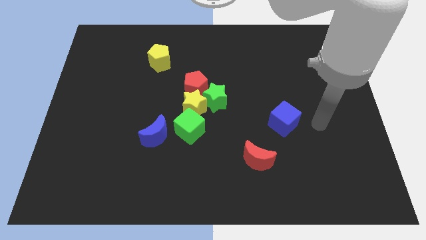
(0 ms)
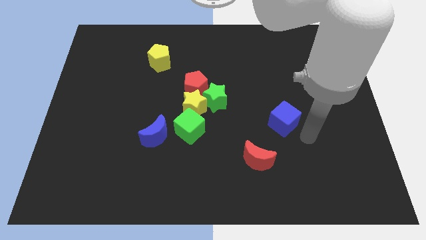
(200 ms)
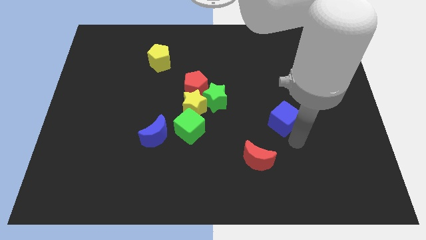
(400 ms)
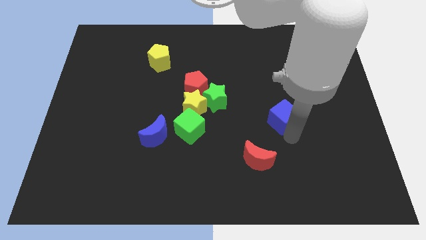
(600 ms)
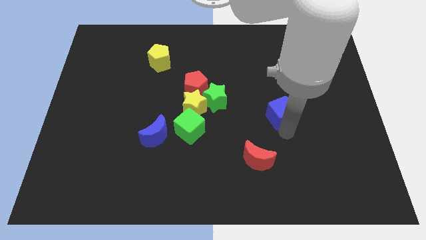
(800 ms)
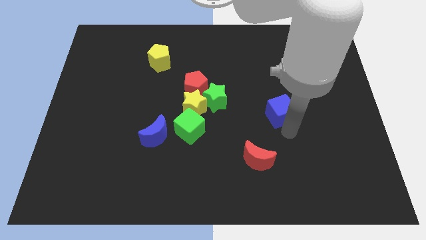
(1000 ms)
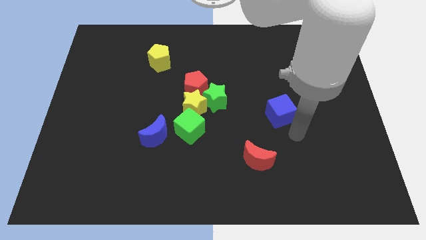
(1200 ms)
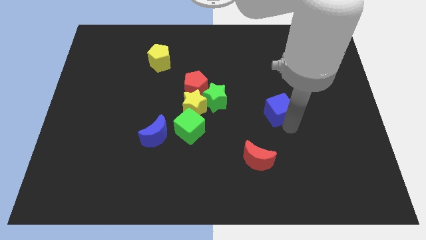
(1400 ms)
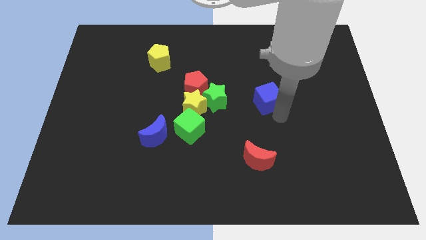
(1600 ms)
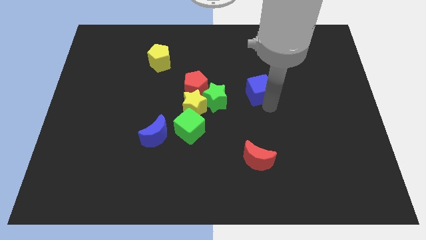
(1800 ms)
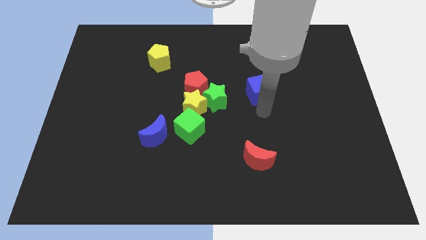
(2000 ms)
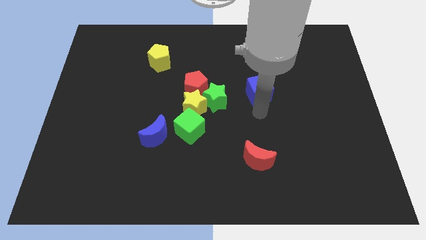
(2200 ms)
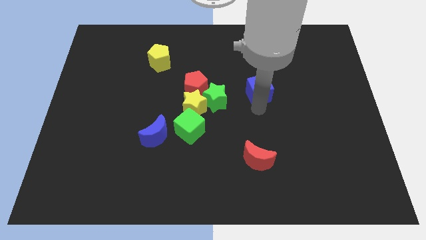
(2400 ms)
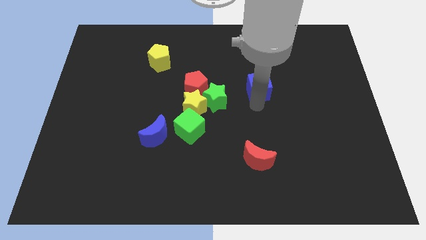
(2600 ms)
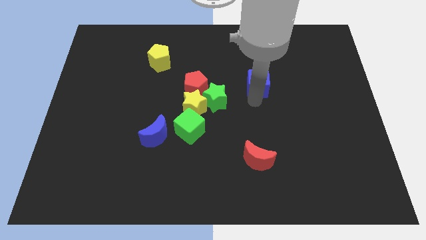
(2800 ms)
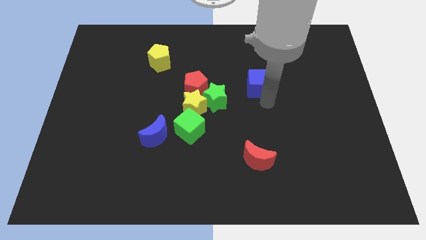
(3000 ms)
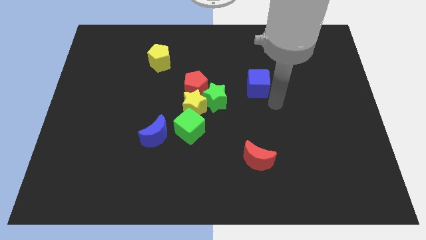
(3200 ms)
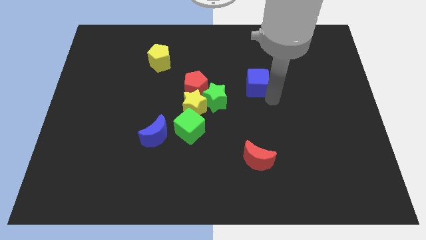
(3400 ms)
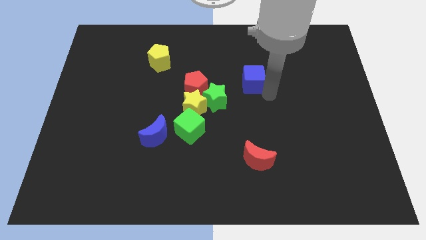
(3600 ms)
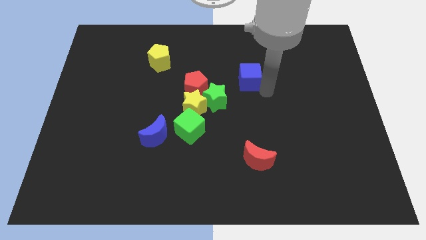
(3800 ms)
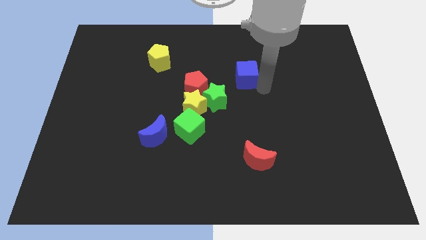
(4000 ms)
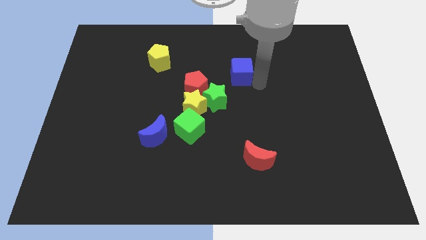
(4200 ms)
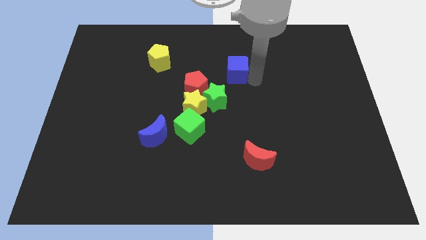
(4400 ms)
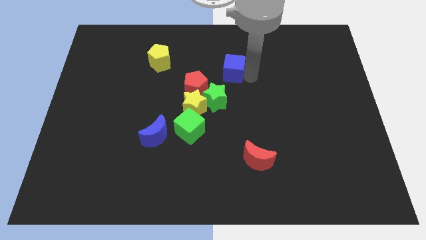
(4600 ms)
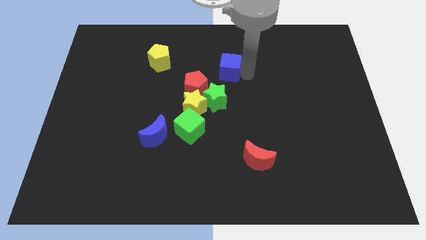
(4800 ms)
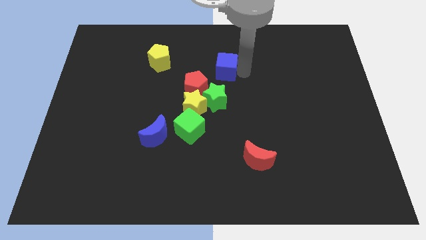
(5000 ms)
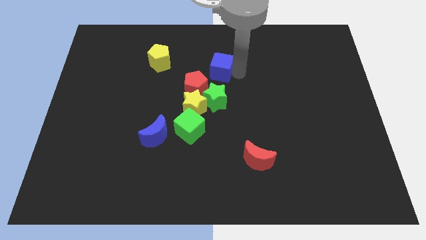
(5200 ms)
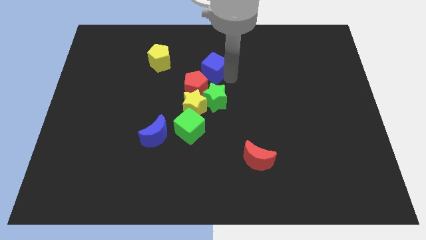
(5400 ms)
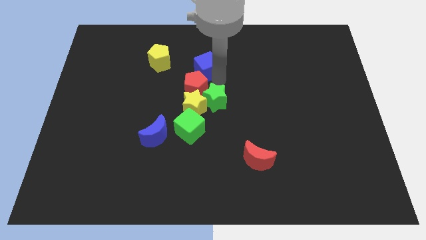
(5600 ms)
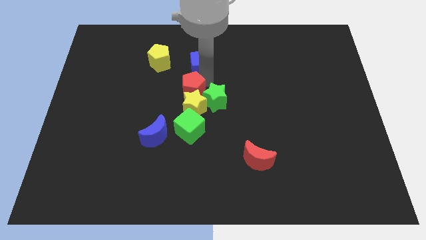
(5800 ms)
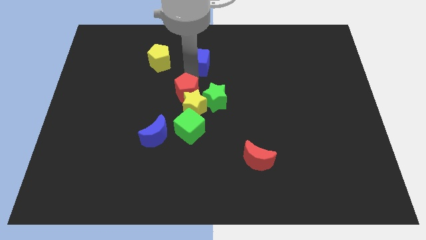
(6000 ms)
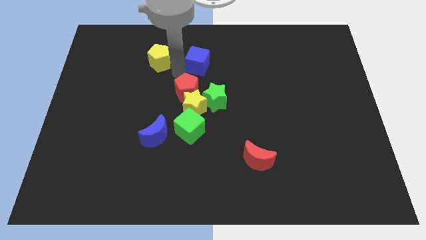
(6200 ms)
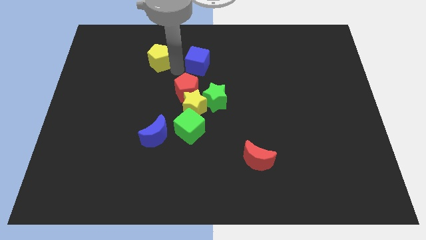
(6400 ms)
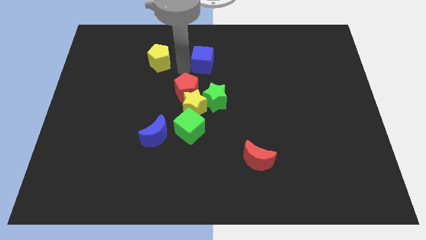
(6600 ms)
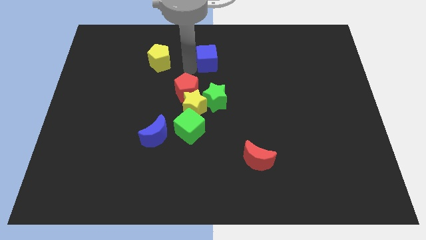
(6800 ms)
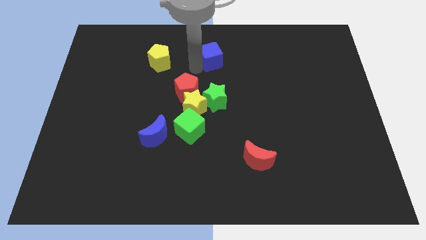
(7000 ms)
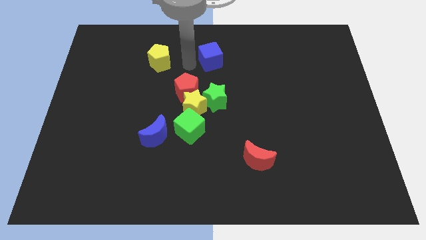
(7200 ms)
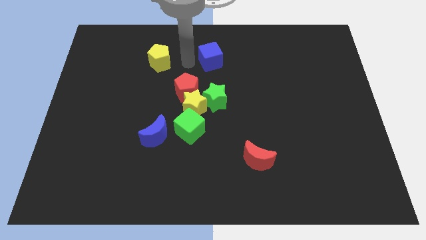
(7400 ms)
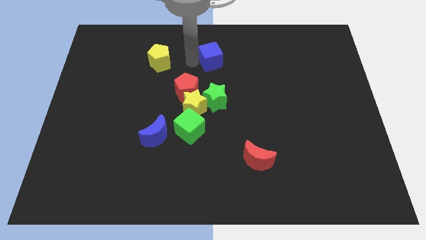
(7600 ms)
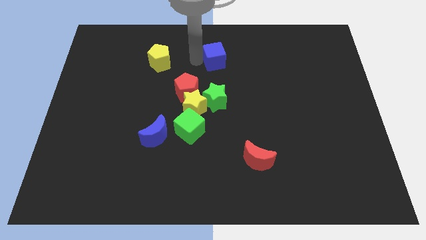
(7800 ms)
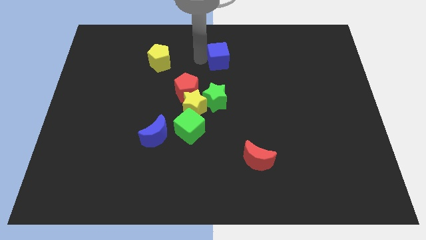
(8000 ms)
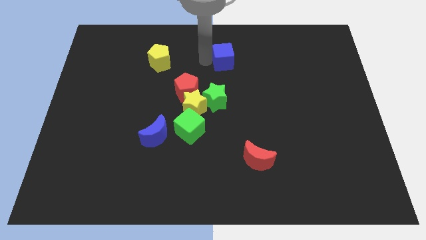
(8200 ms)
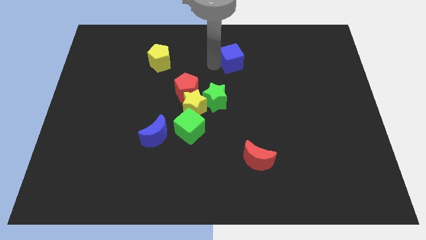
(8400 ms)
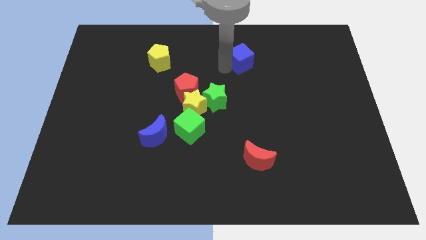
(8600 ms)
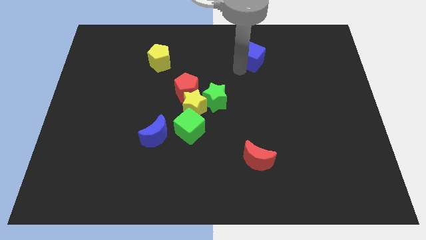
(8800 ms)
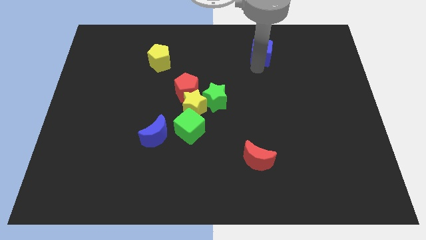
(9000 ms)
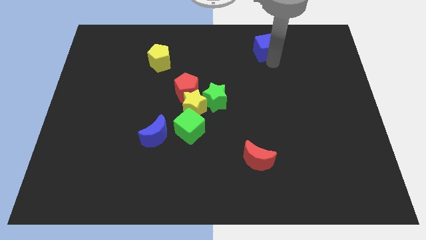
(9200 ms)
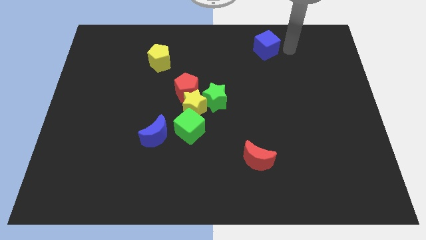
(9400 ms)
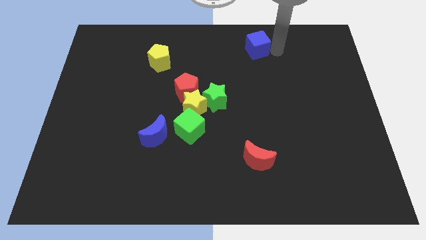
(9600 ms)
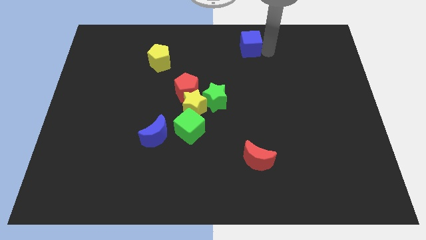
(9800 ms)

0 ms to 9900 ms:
move the blue cube to the top side

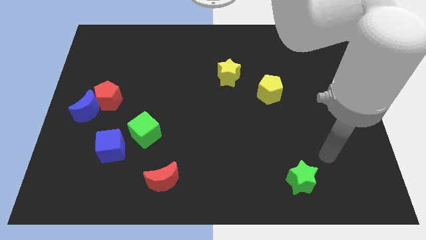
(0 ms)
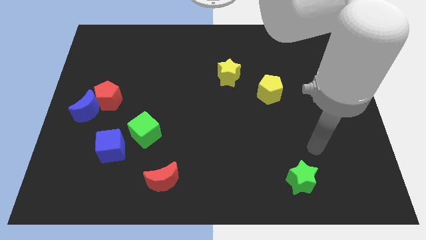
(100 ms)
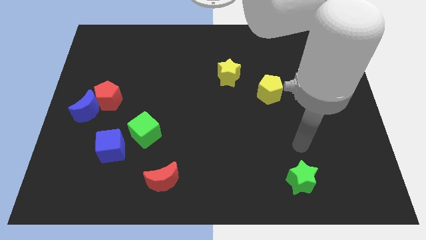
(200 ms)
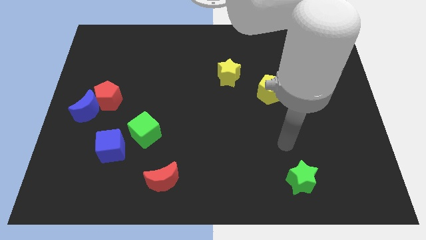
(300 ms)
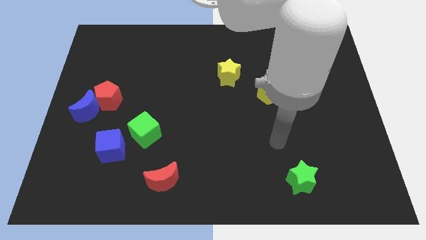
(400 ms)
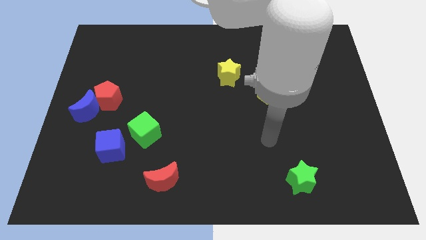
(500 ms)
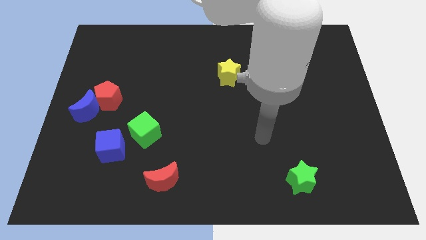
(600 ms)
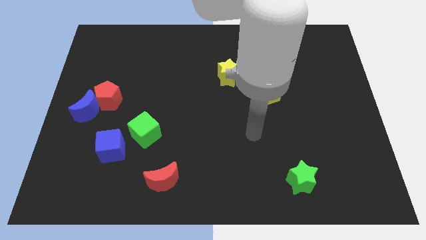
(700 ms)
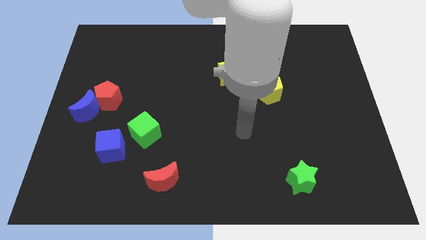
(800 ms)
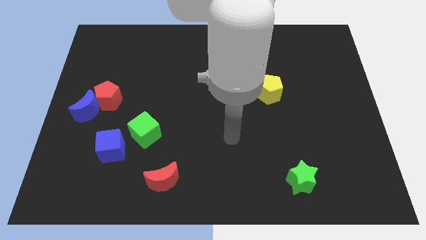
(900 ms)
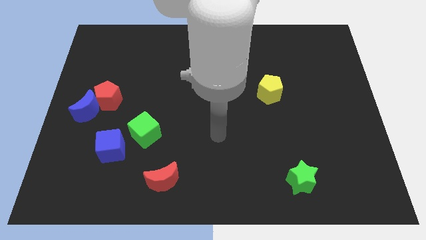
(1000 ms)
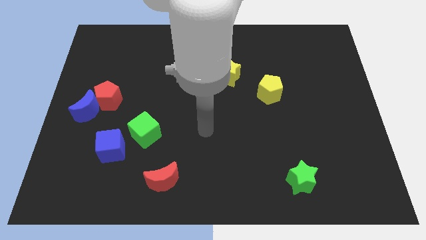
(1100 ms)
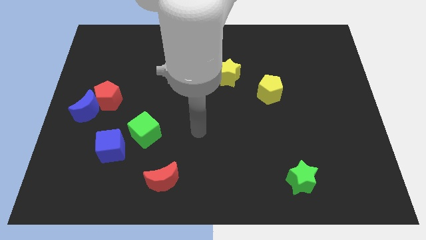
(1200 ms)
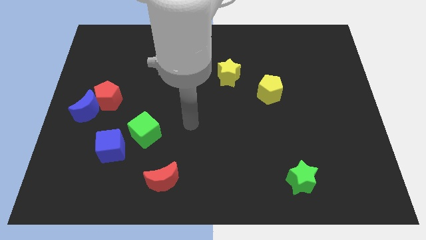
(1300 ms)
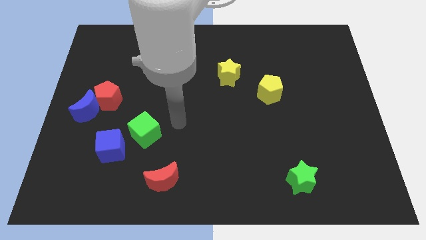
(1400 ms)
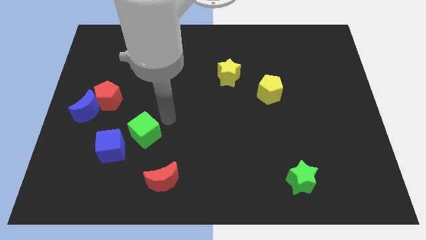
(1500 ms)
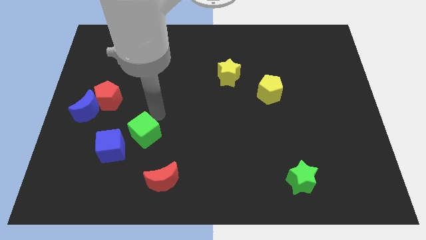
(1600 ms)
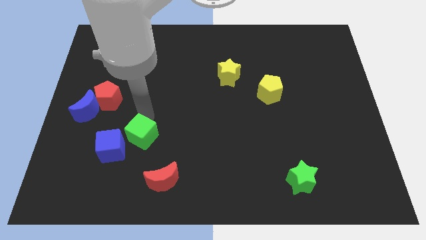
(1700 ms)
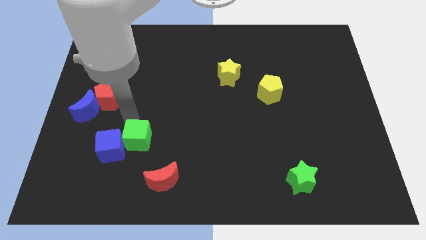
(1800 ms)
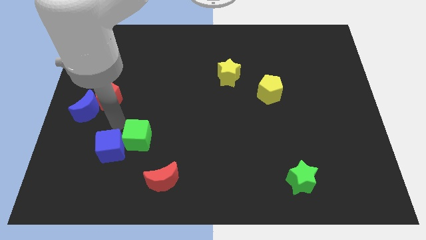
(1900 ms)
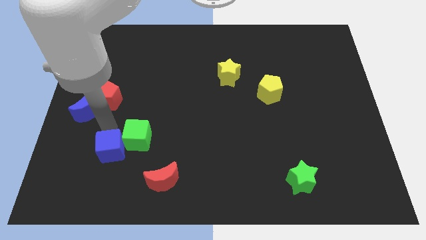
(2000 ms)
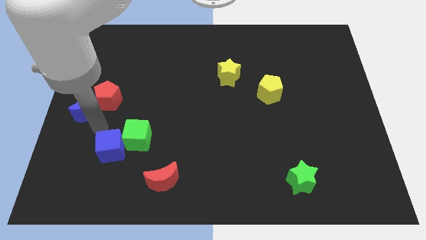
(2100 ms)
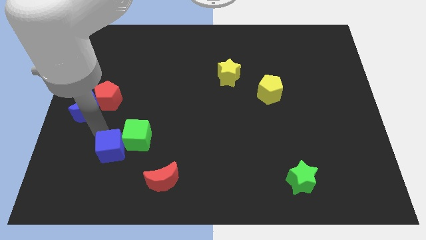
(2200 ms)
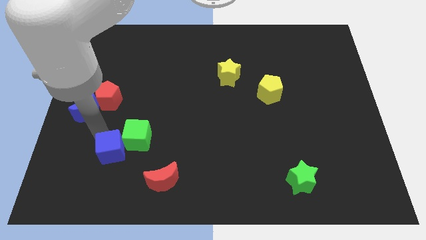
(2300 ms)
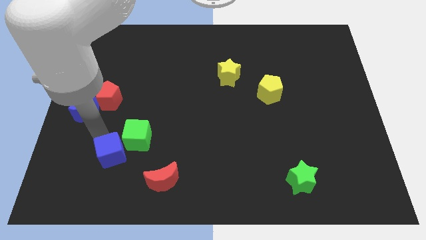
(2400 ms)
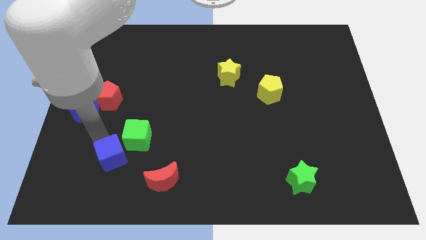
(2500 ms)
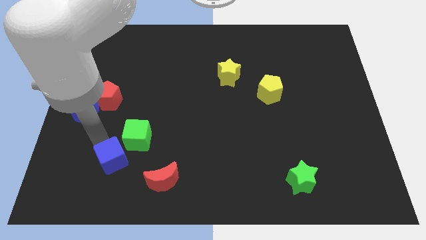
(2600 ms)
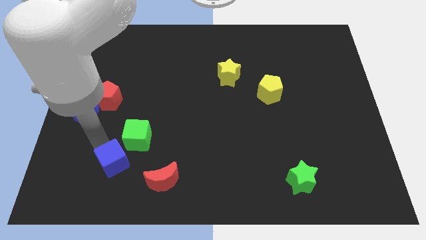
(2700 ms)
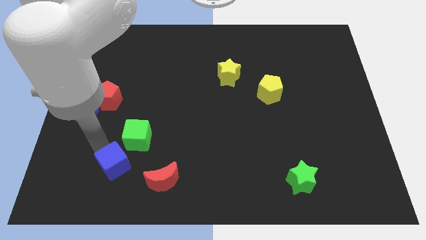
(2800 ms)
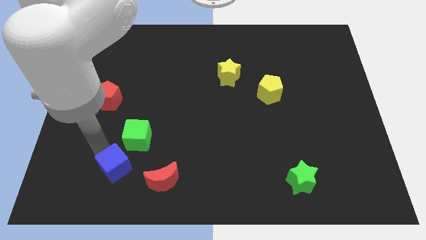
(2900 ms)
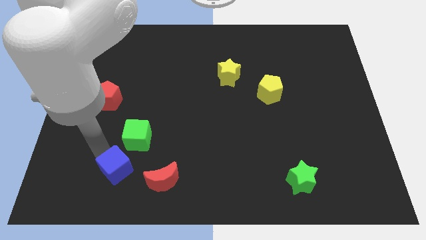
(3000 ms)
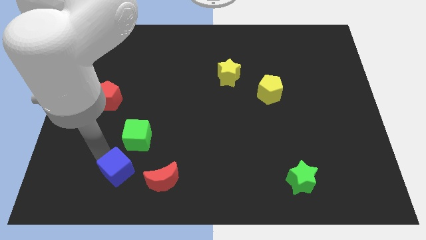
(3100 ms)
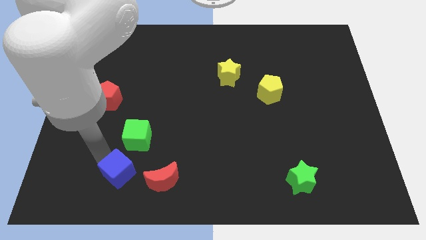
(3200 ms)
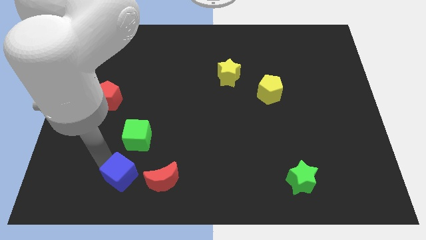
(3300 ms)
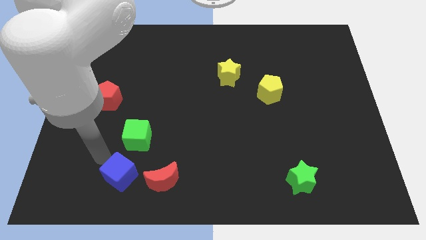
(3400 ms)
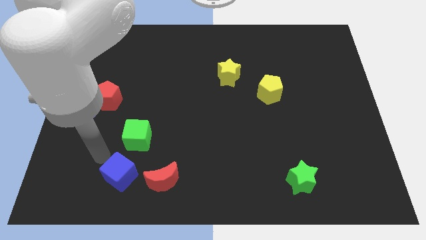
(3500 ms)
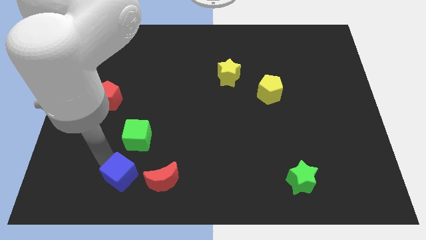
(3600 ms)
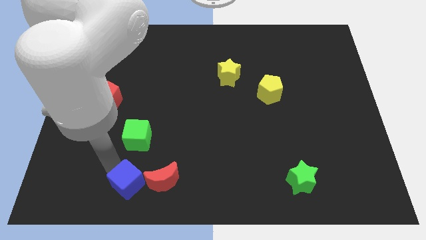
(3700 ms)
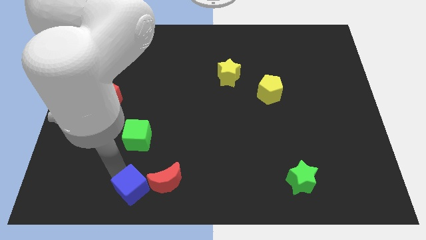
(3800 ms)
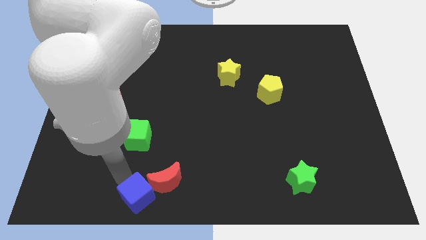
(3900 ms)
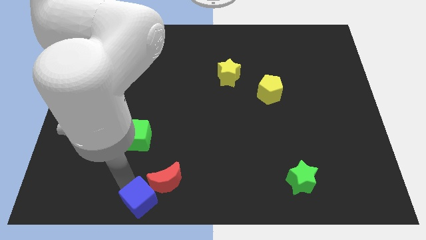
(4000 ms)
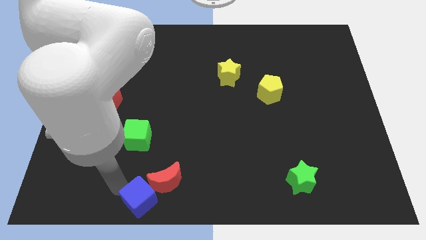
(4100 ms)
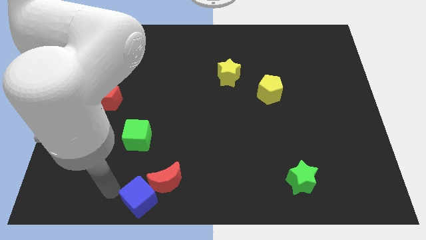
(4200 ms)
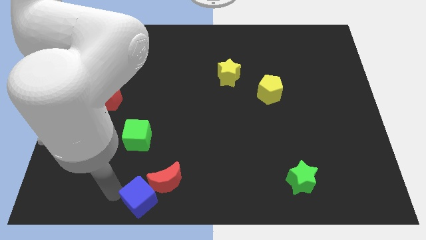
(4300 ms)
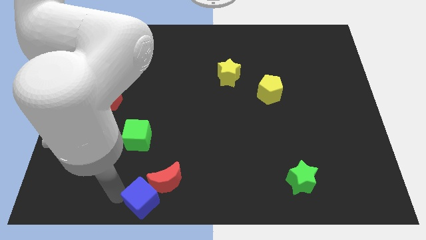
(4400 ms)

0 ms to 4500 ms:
put the blue cube to the bottom side
